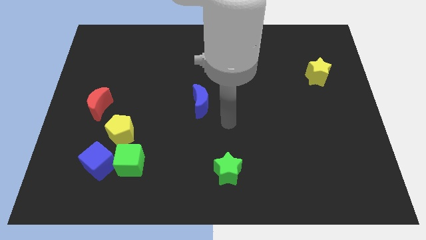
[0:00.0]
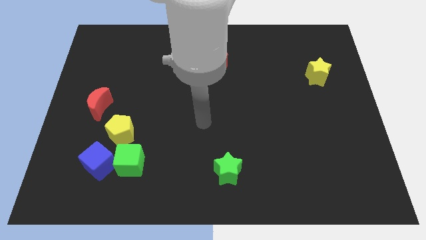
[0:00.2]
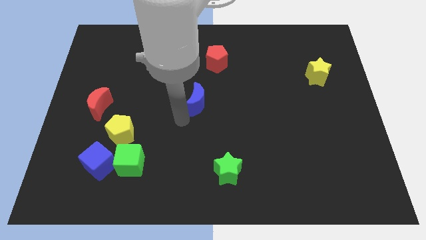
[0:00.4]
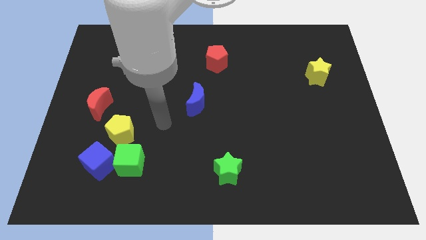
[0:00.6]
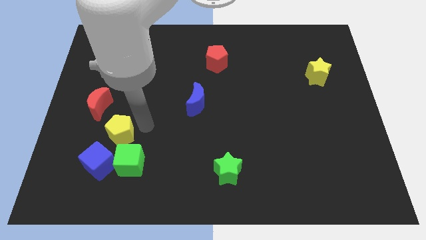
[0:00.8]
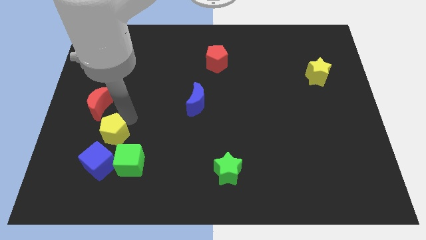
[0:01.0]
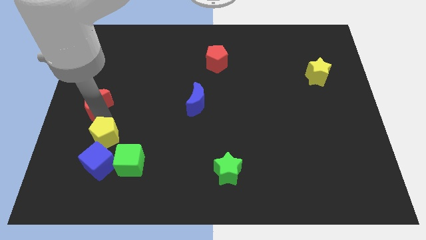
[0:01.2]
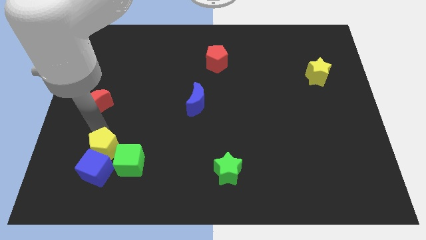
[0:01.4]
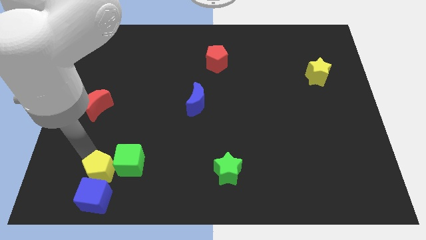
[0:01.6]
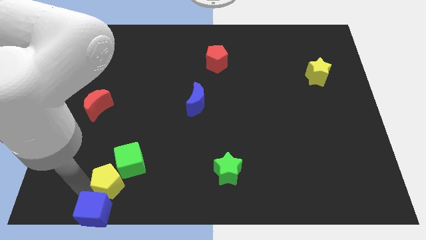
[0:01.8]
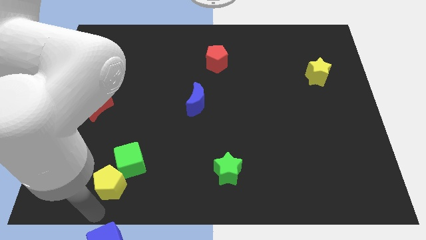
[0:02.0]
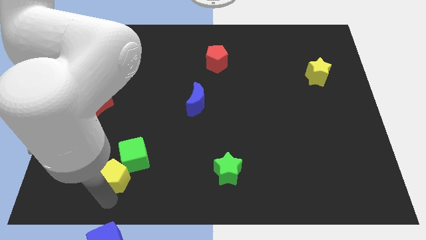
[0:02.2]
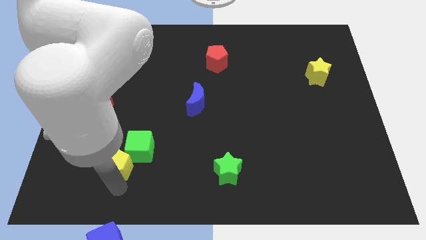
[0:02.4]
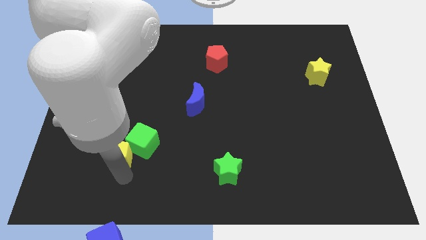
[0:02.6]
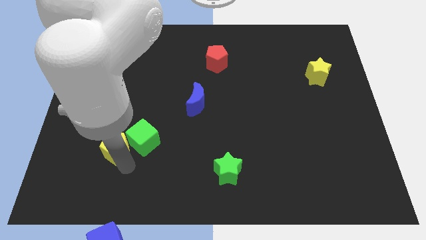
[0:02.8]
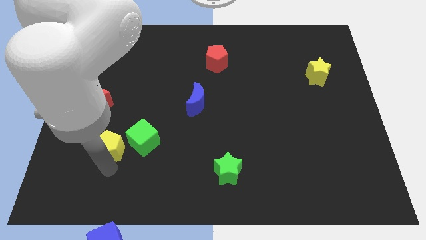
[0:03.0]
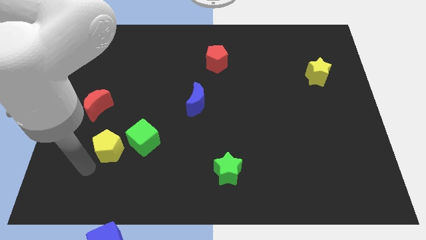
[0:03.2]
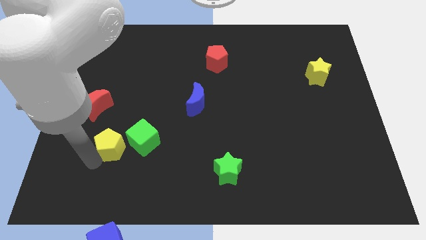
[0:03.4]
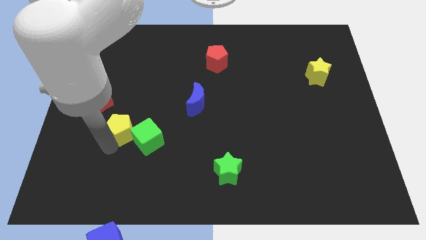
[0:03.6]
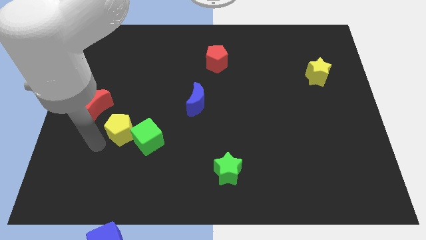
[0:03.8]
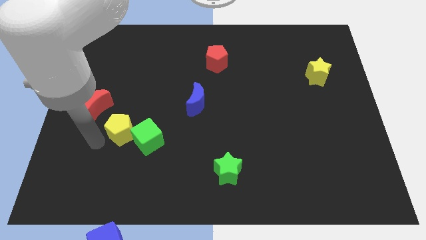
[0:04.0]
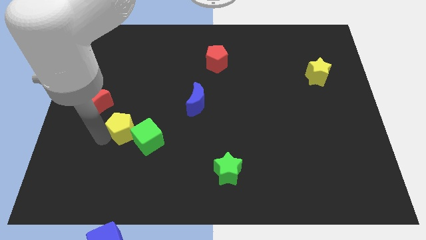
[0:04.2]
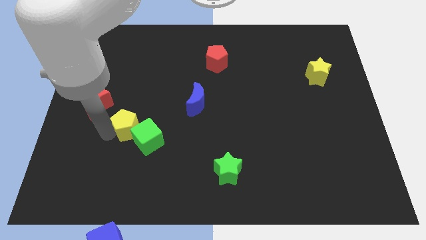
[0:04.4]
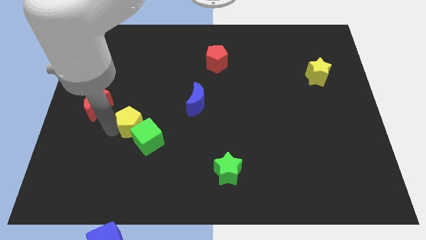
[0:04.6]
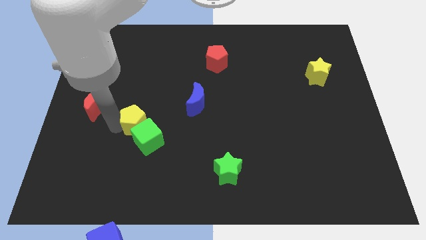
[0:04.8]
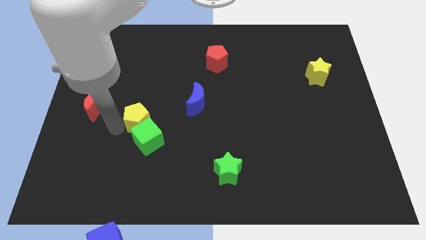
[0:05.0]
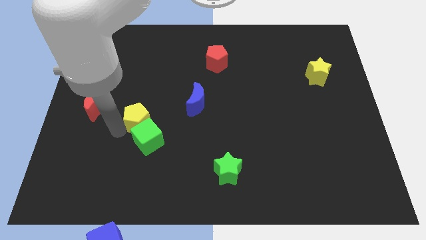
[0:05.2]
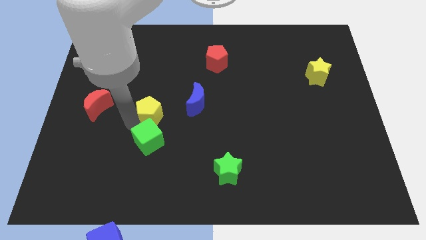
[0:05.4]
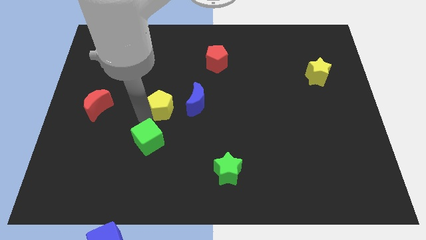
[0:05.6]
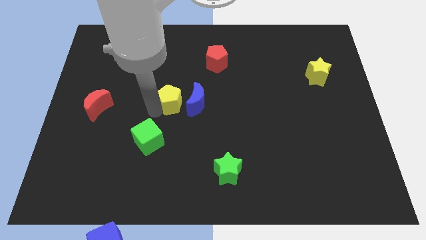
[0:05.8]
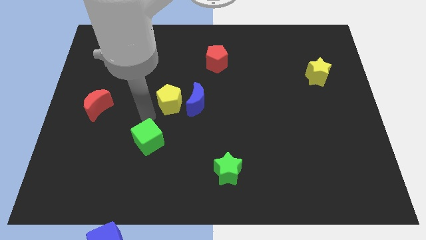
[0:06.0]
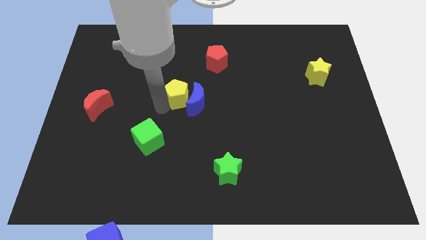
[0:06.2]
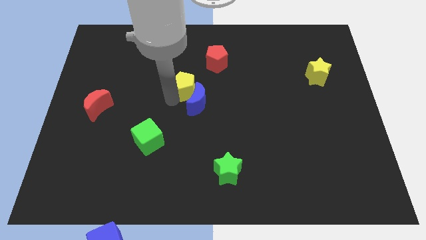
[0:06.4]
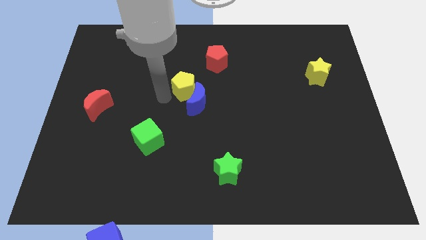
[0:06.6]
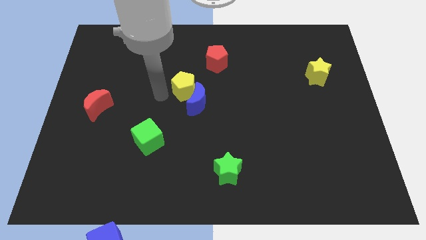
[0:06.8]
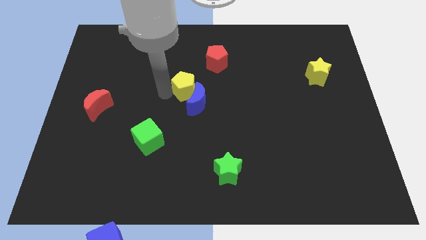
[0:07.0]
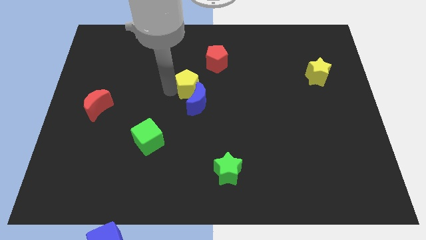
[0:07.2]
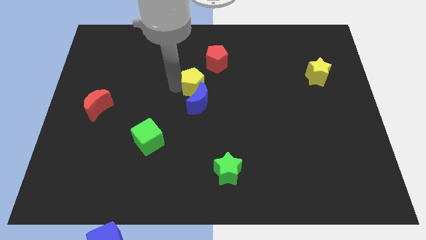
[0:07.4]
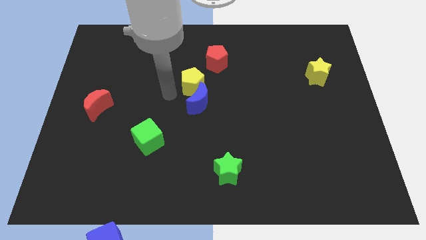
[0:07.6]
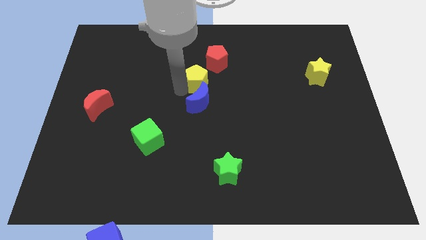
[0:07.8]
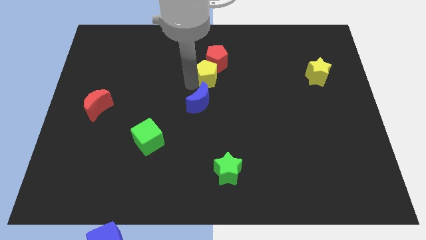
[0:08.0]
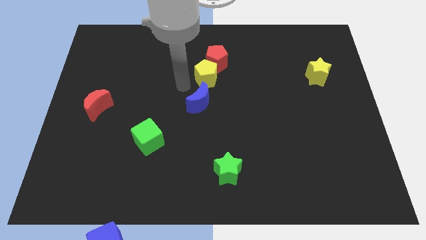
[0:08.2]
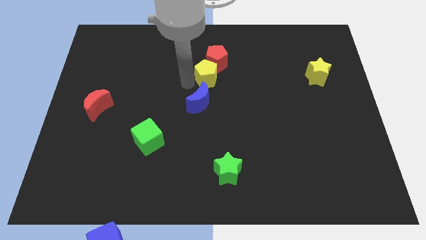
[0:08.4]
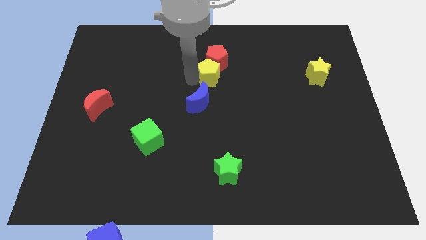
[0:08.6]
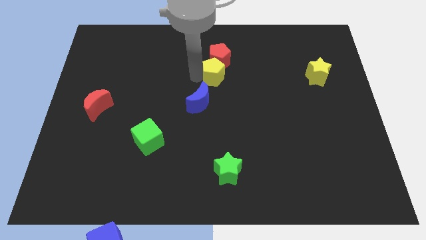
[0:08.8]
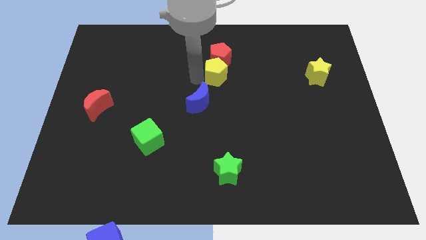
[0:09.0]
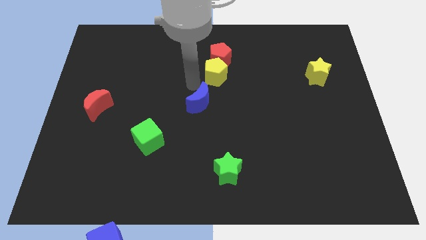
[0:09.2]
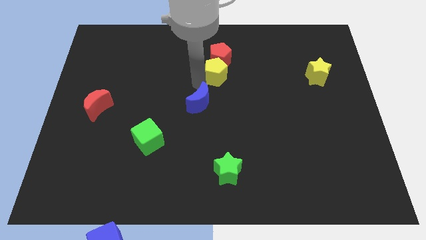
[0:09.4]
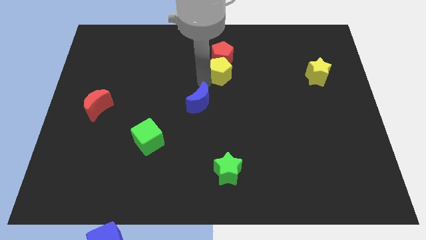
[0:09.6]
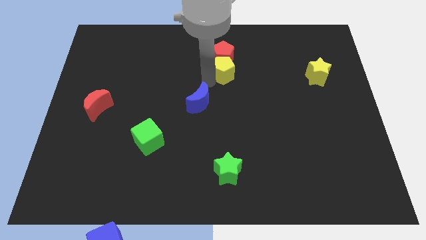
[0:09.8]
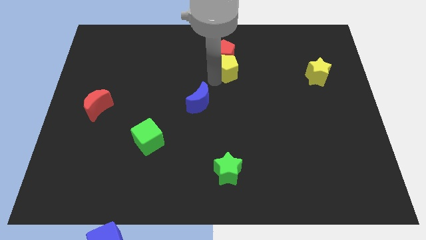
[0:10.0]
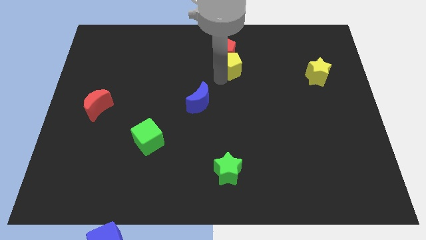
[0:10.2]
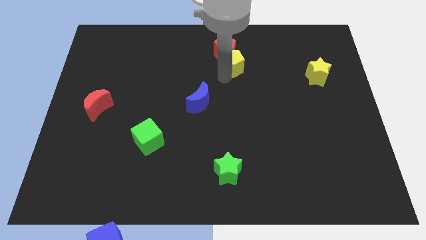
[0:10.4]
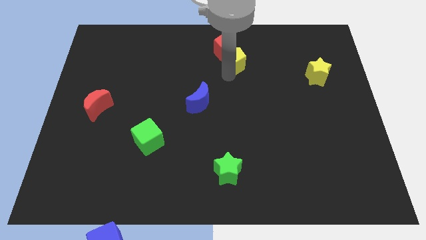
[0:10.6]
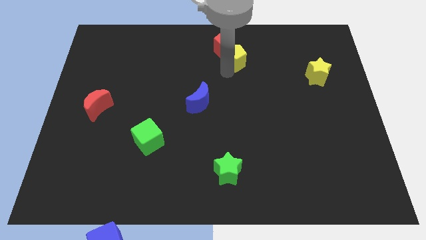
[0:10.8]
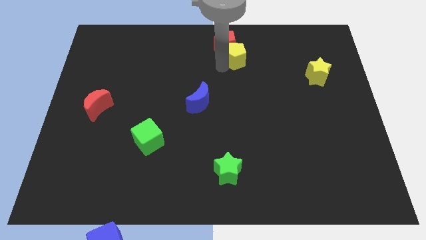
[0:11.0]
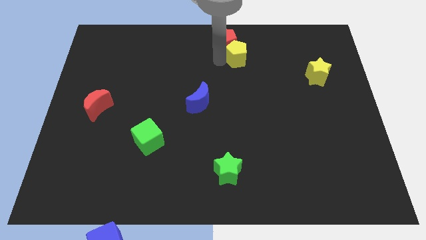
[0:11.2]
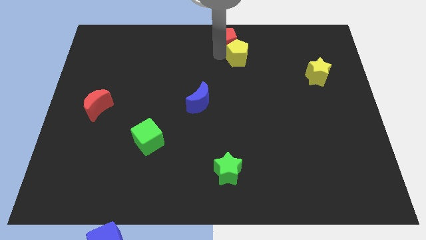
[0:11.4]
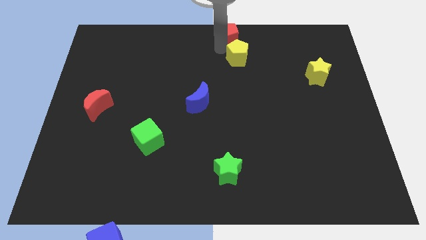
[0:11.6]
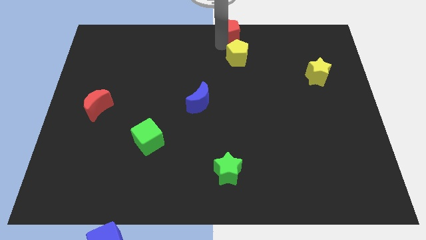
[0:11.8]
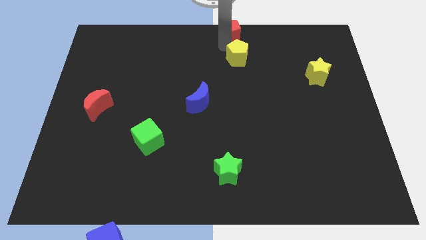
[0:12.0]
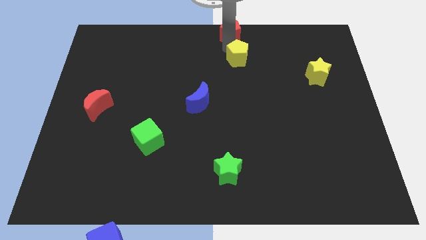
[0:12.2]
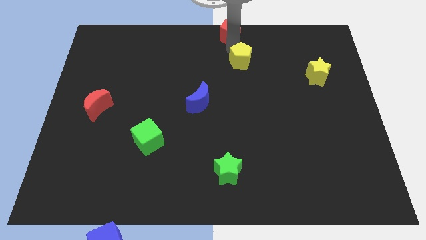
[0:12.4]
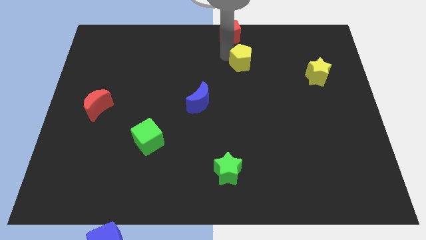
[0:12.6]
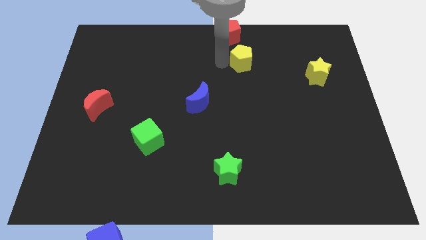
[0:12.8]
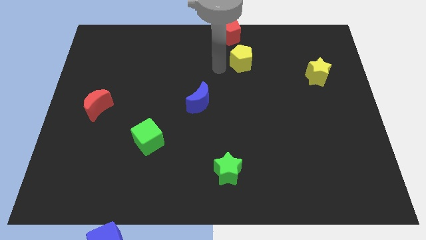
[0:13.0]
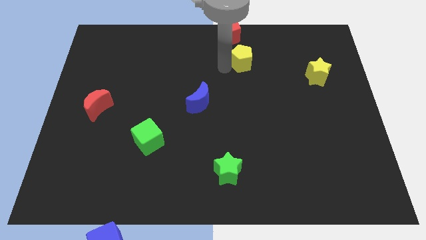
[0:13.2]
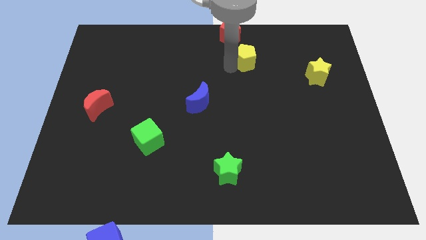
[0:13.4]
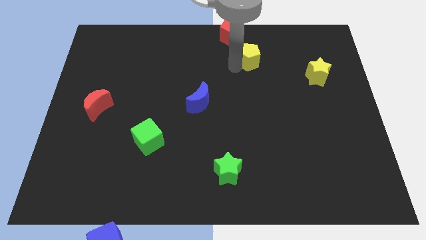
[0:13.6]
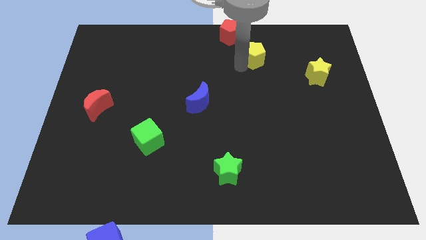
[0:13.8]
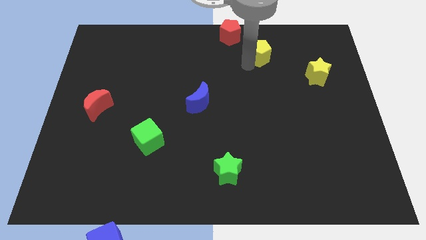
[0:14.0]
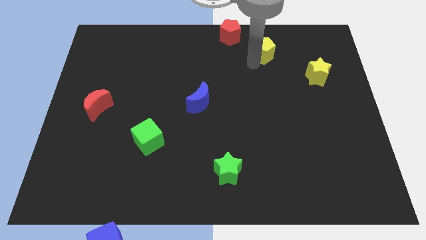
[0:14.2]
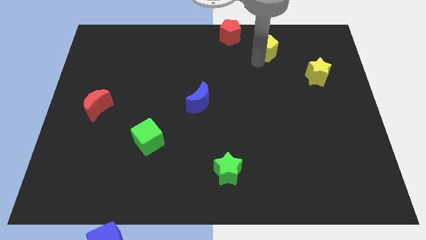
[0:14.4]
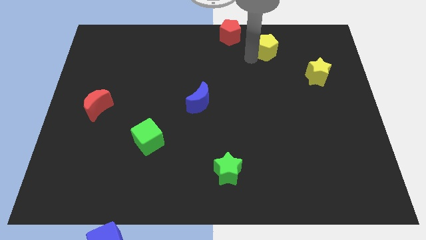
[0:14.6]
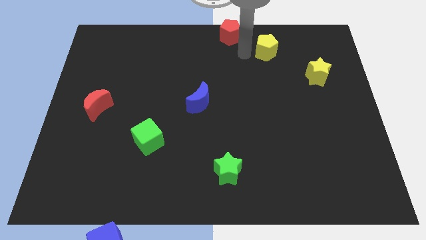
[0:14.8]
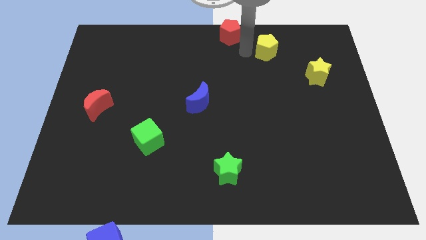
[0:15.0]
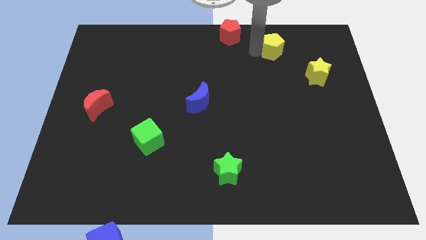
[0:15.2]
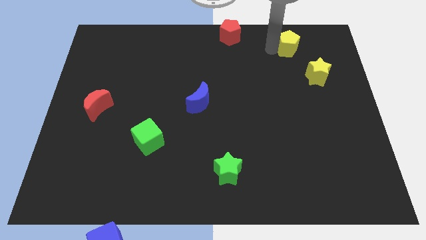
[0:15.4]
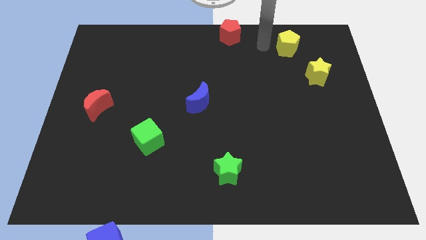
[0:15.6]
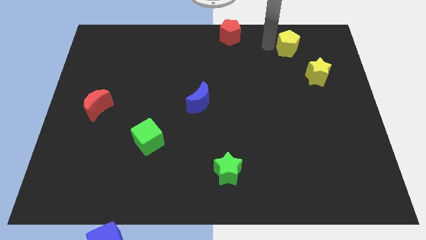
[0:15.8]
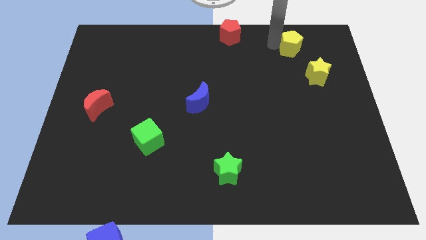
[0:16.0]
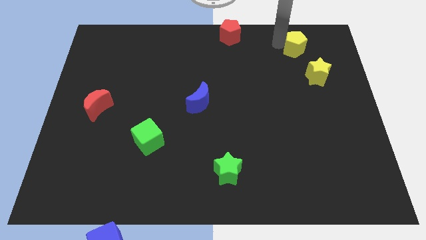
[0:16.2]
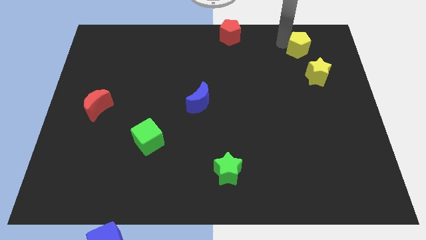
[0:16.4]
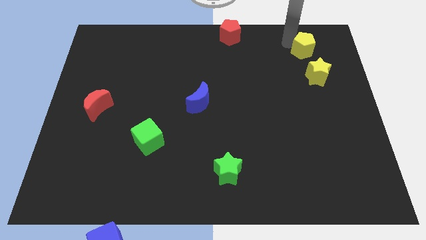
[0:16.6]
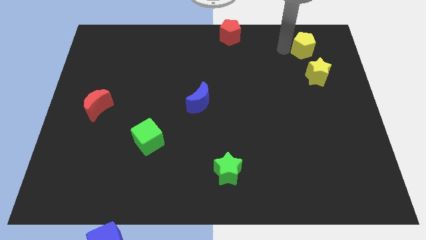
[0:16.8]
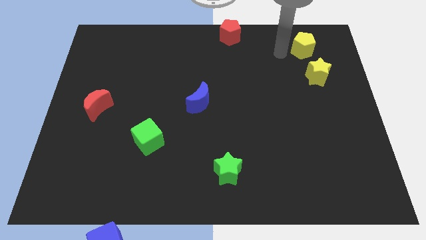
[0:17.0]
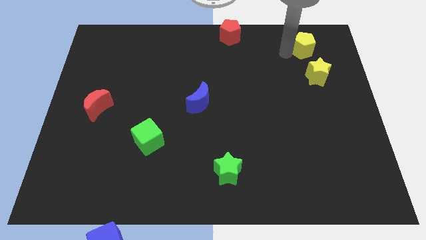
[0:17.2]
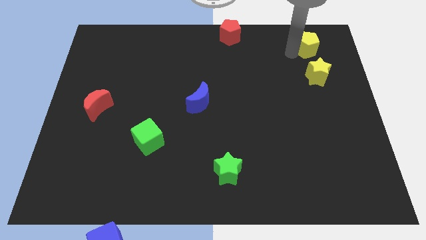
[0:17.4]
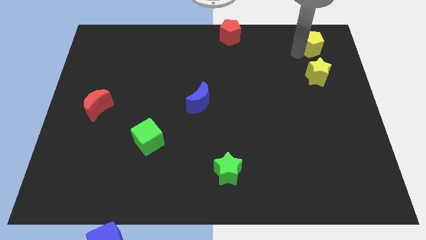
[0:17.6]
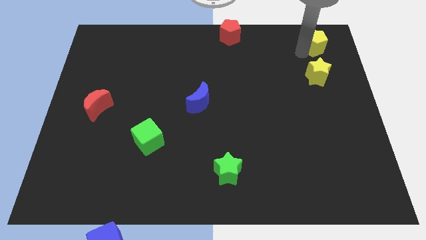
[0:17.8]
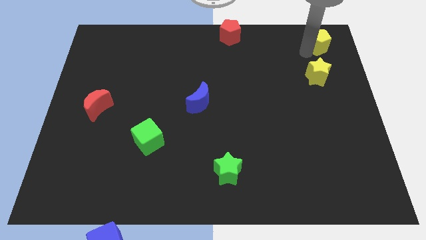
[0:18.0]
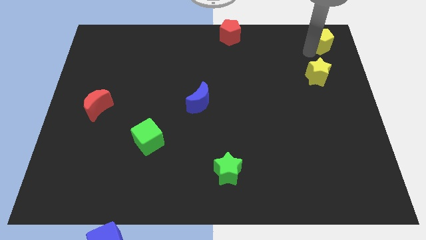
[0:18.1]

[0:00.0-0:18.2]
move the yellow pentagon to the top right
